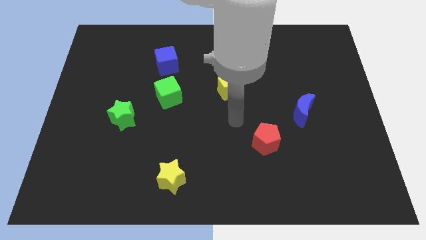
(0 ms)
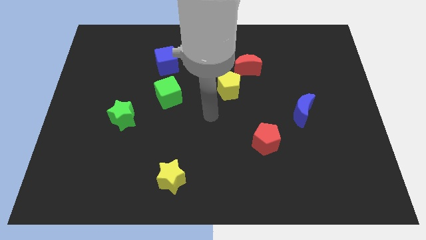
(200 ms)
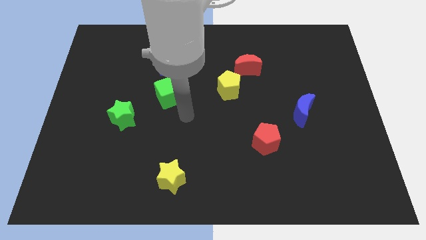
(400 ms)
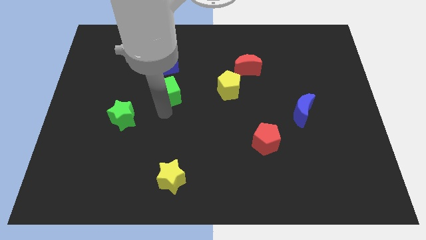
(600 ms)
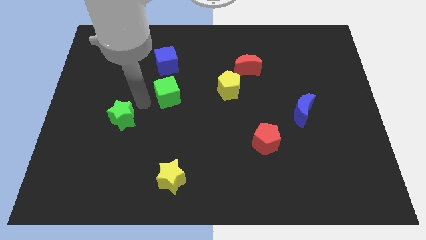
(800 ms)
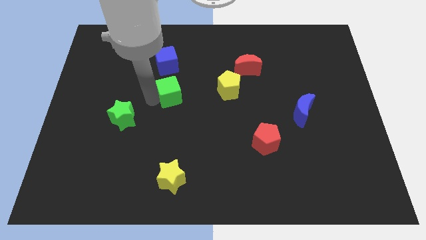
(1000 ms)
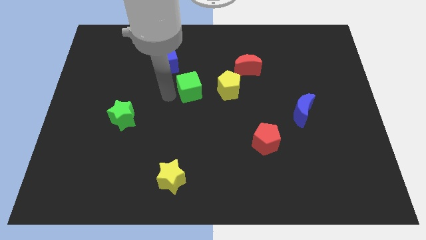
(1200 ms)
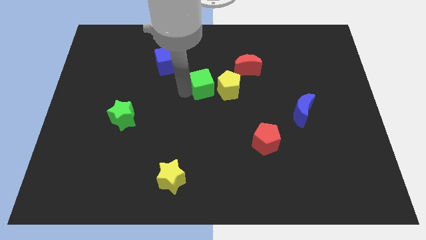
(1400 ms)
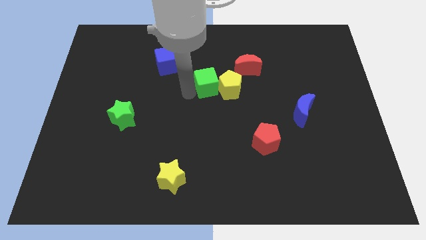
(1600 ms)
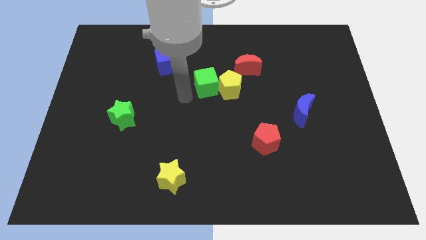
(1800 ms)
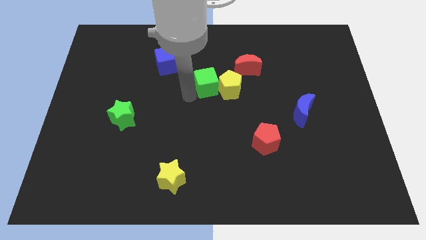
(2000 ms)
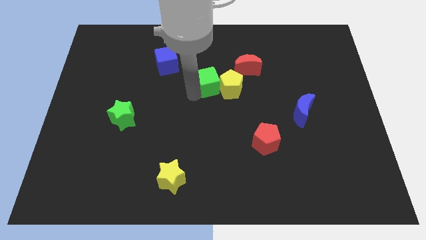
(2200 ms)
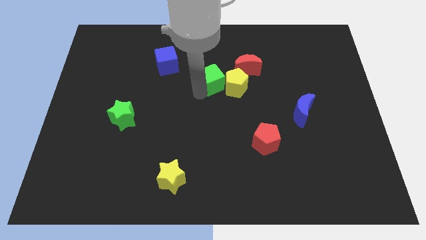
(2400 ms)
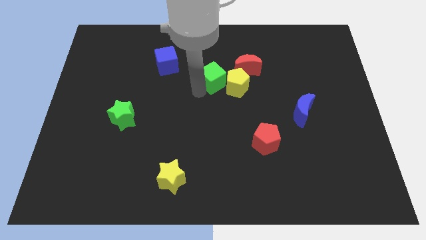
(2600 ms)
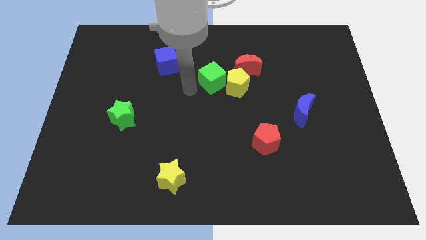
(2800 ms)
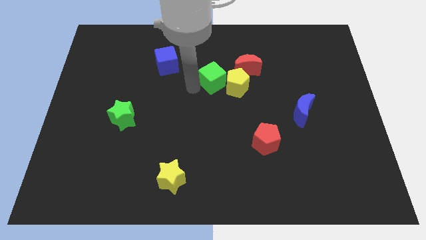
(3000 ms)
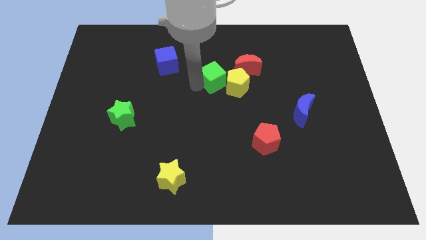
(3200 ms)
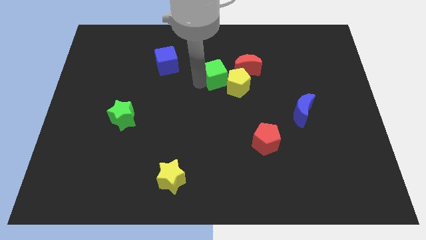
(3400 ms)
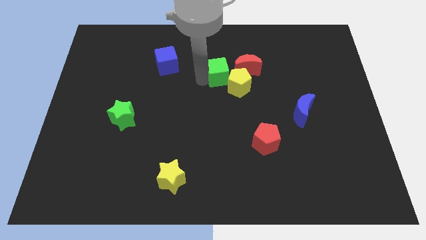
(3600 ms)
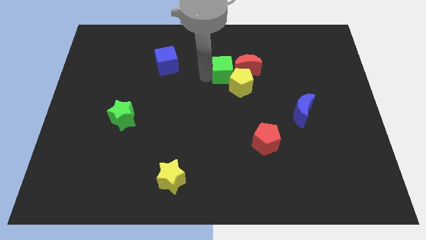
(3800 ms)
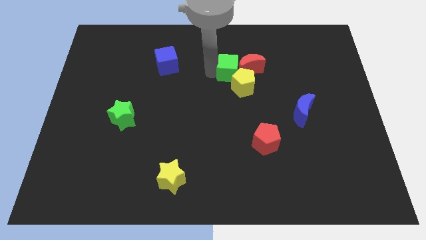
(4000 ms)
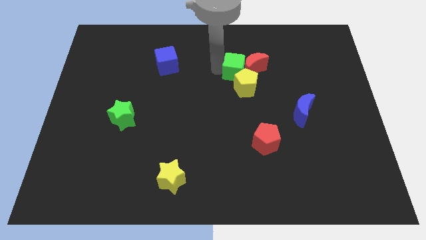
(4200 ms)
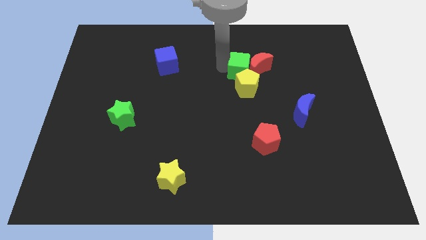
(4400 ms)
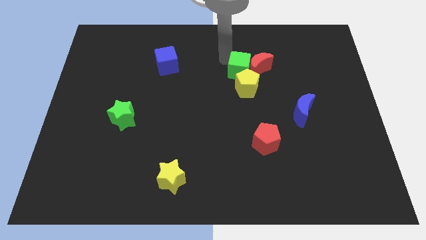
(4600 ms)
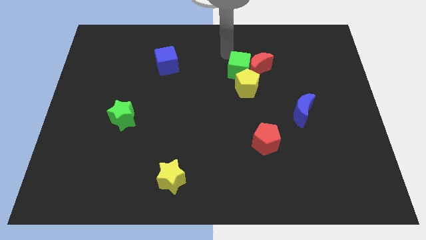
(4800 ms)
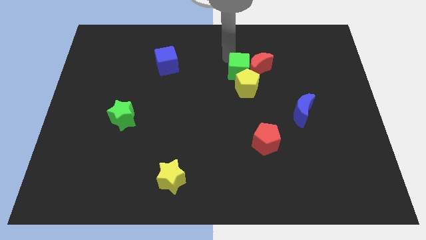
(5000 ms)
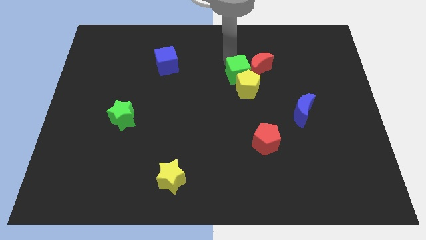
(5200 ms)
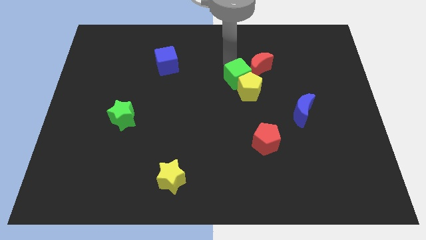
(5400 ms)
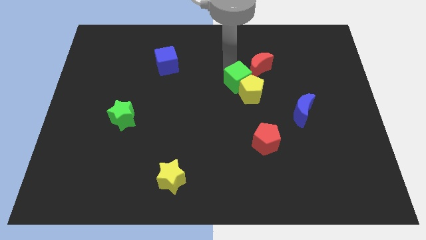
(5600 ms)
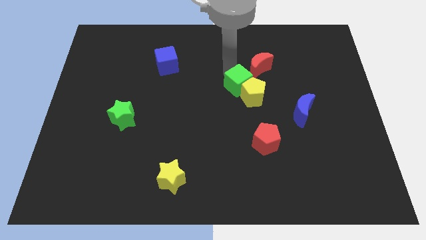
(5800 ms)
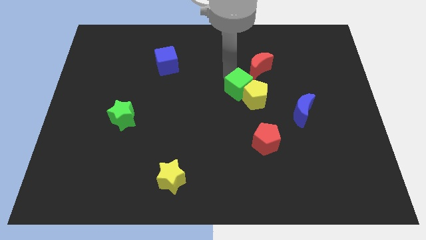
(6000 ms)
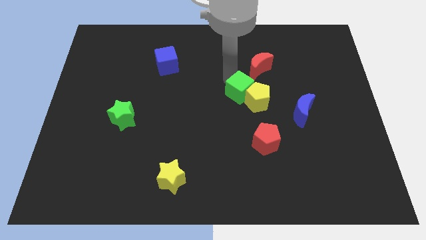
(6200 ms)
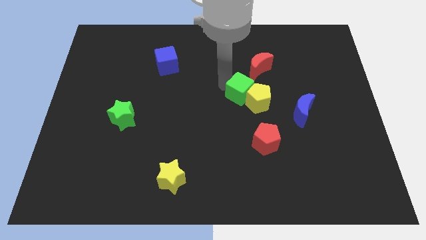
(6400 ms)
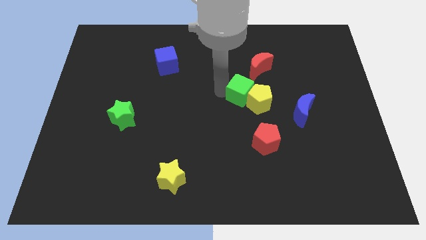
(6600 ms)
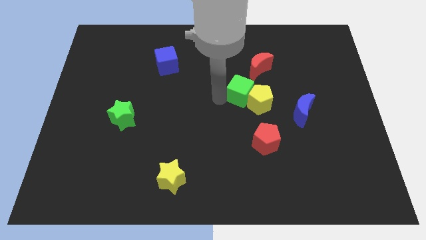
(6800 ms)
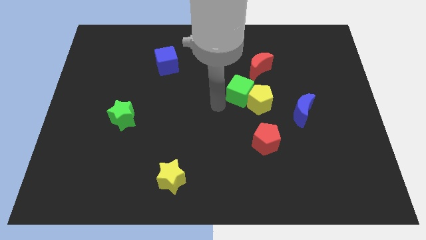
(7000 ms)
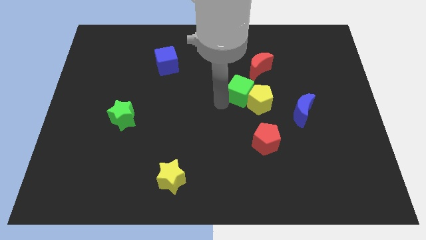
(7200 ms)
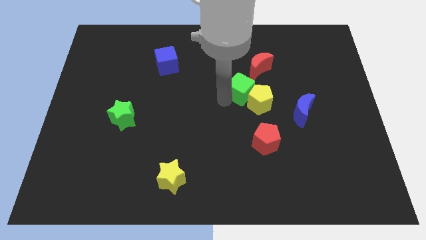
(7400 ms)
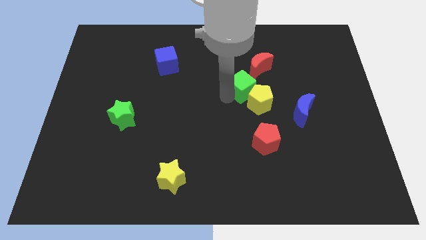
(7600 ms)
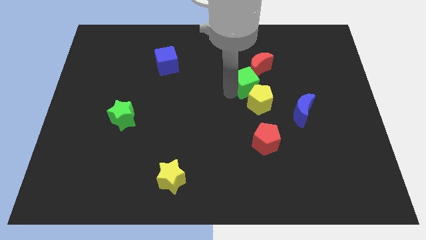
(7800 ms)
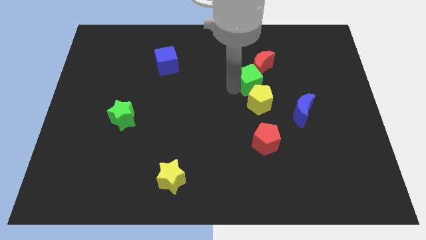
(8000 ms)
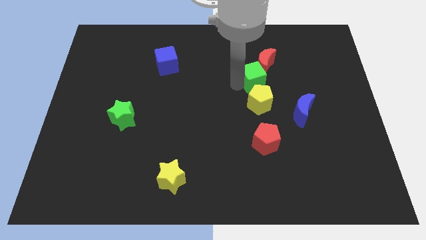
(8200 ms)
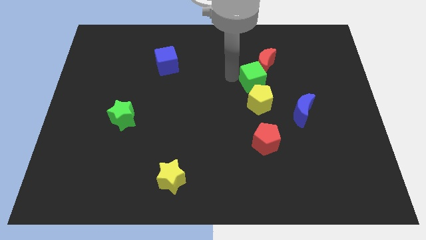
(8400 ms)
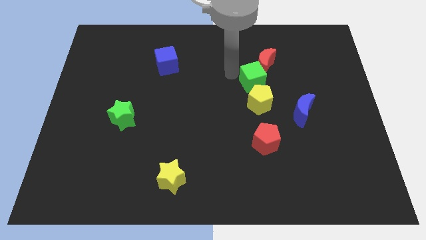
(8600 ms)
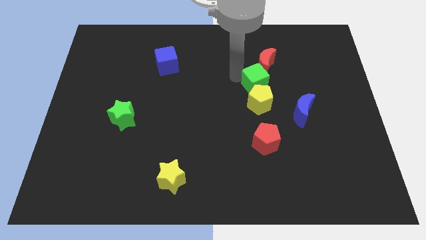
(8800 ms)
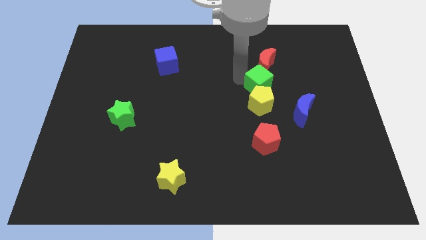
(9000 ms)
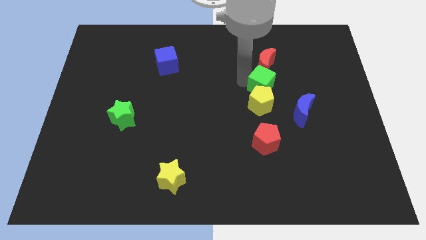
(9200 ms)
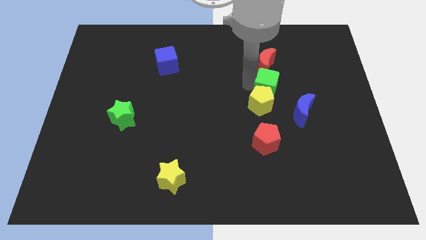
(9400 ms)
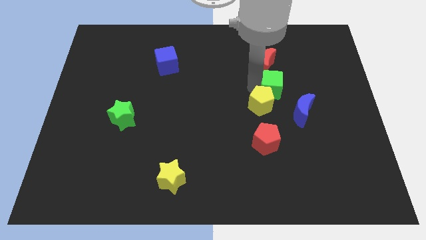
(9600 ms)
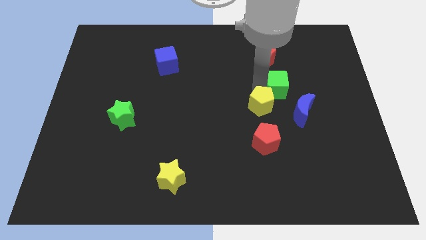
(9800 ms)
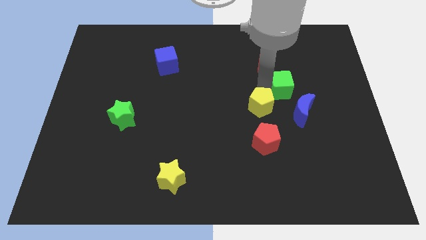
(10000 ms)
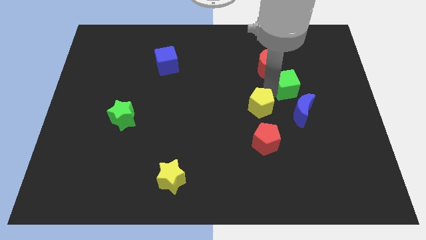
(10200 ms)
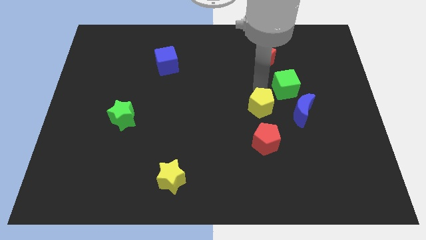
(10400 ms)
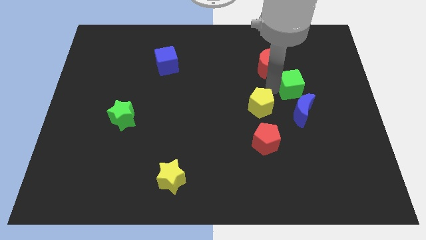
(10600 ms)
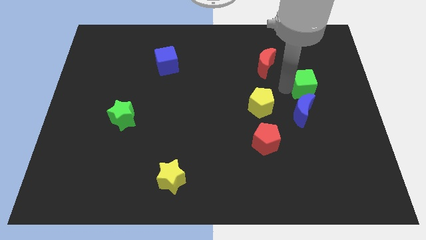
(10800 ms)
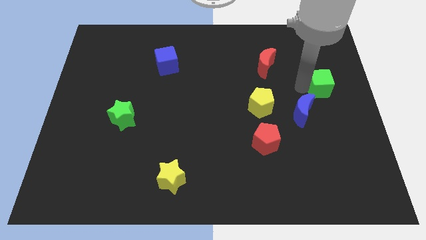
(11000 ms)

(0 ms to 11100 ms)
move the green cube to the right side of the board
